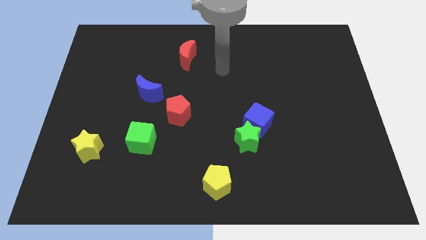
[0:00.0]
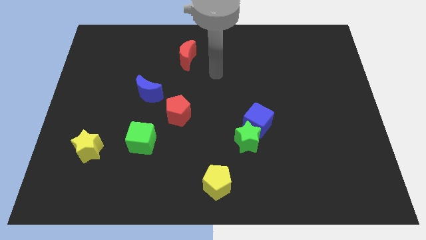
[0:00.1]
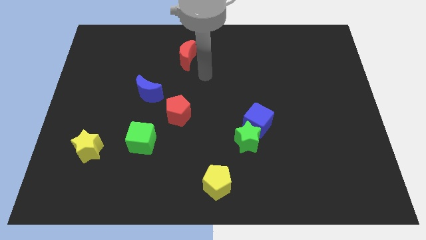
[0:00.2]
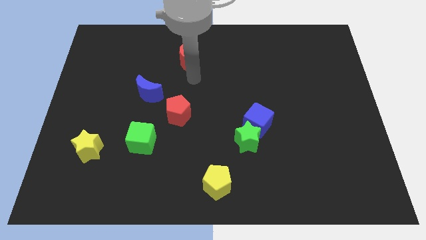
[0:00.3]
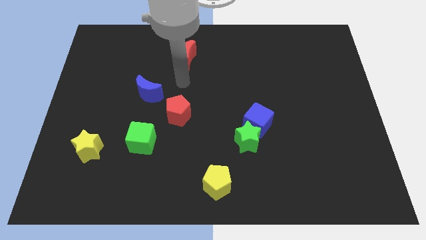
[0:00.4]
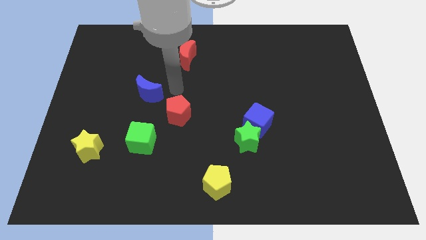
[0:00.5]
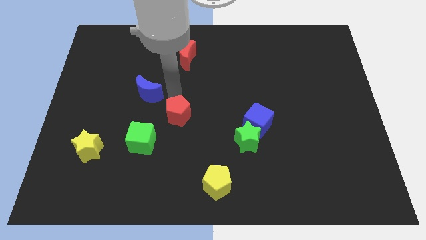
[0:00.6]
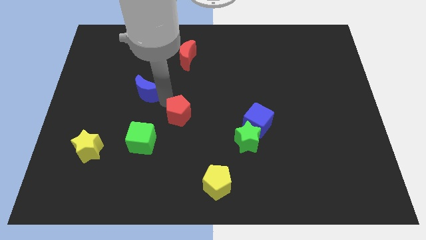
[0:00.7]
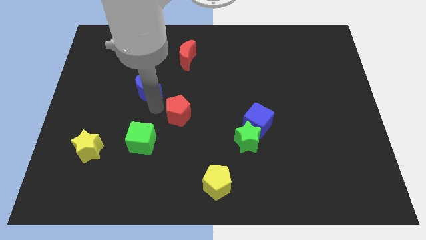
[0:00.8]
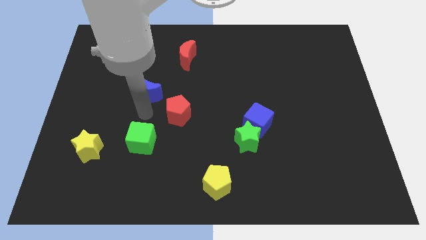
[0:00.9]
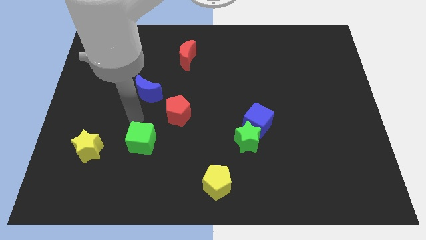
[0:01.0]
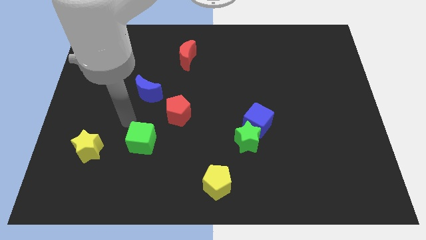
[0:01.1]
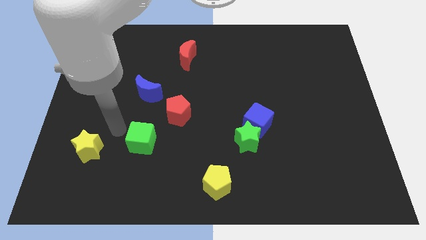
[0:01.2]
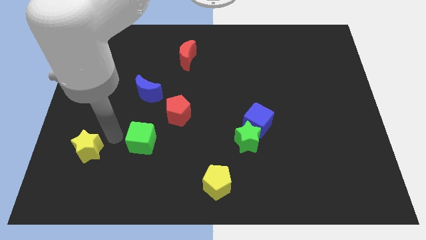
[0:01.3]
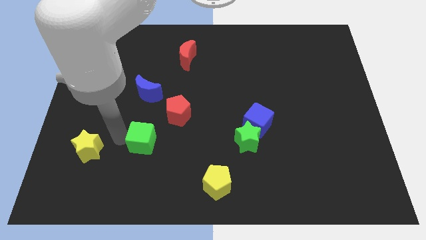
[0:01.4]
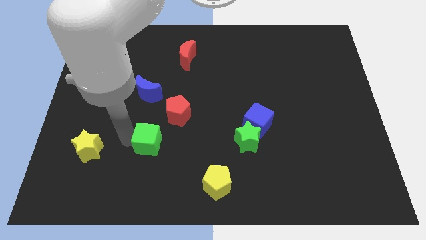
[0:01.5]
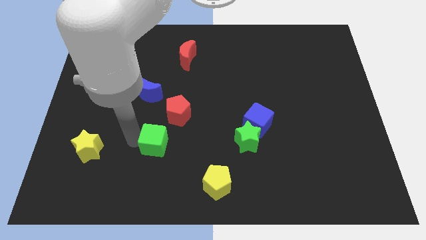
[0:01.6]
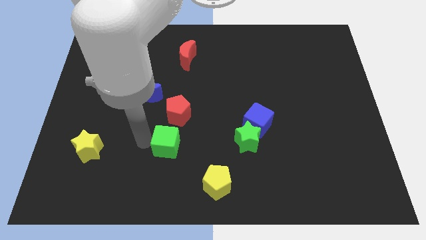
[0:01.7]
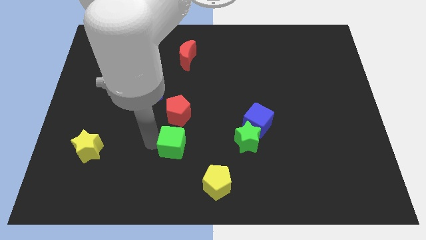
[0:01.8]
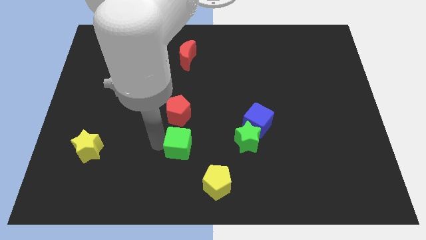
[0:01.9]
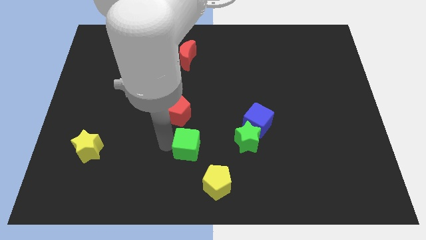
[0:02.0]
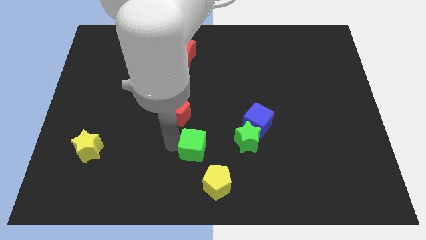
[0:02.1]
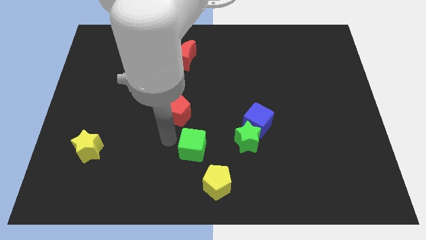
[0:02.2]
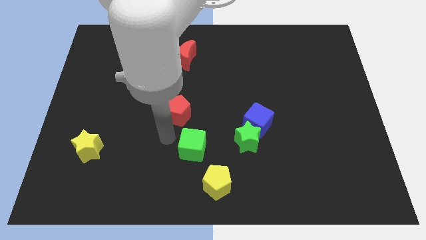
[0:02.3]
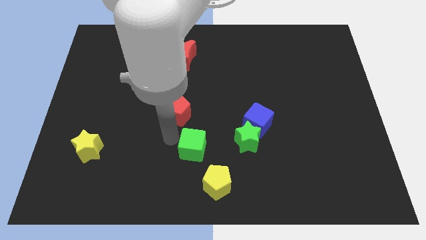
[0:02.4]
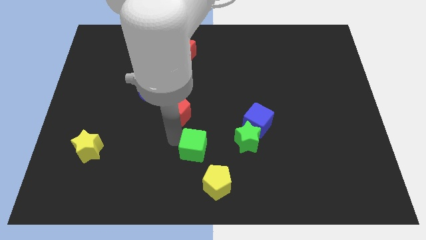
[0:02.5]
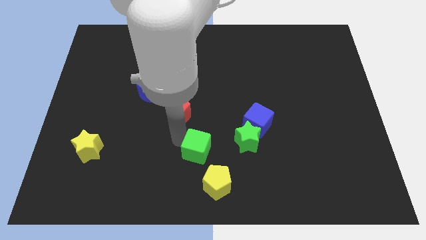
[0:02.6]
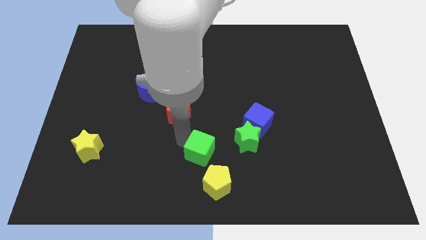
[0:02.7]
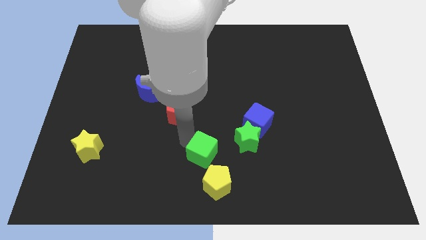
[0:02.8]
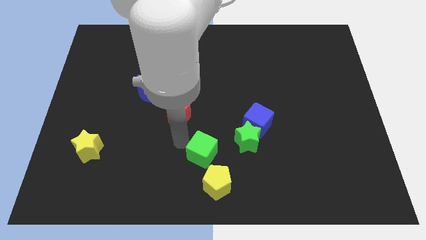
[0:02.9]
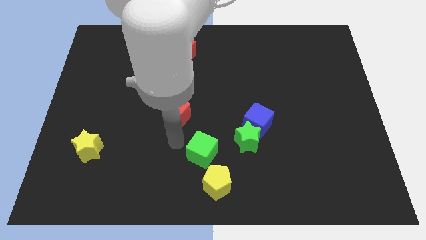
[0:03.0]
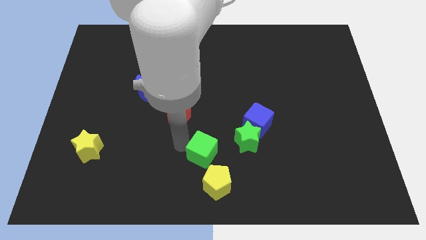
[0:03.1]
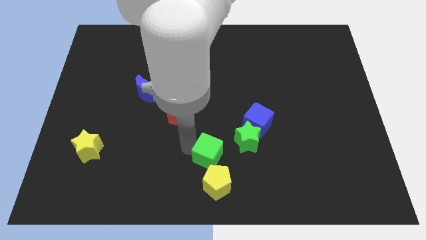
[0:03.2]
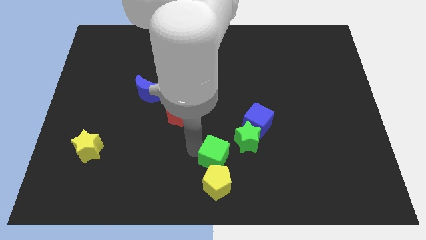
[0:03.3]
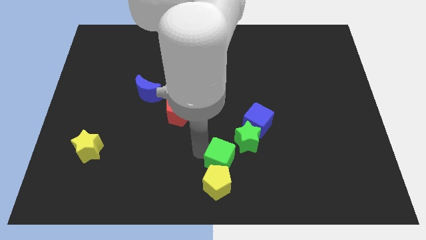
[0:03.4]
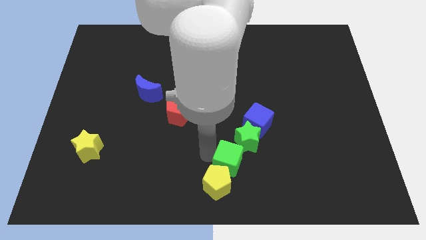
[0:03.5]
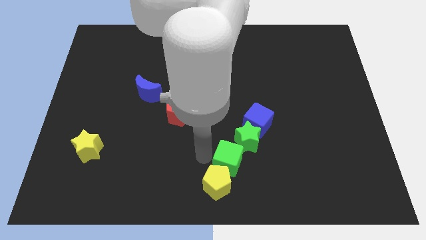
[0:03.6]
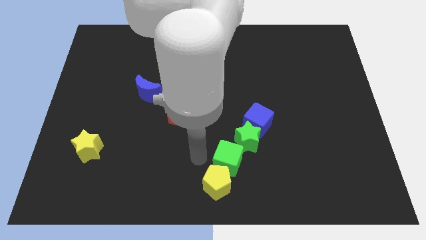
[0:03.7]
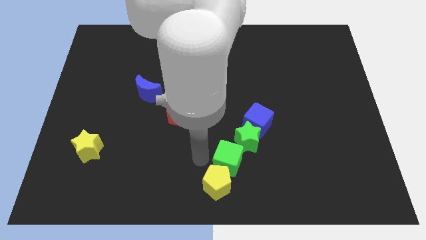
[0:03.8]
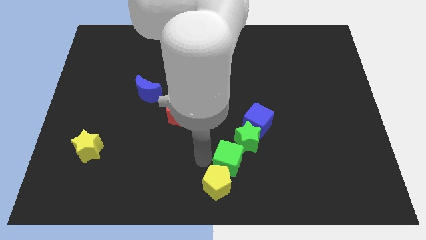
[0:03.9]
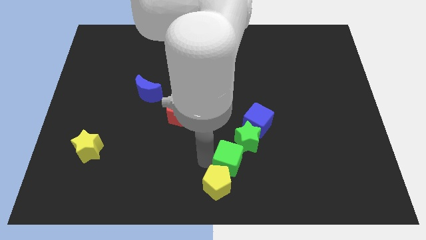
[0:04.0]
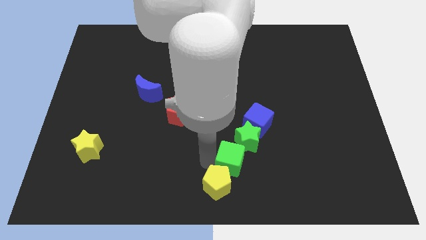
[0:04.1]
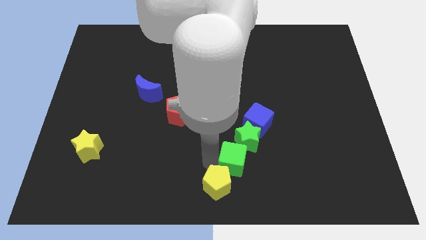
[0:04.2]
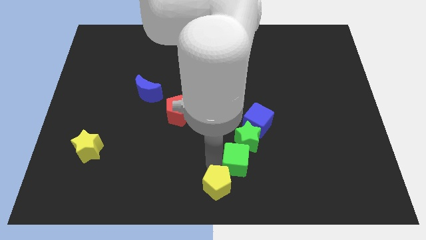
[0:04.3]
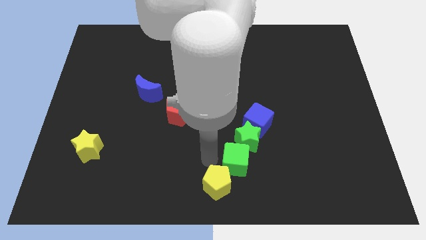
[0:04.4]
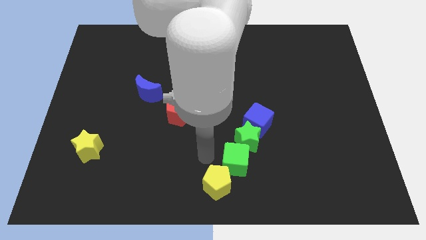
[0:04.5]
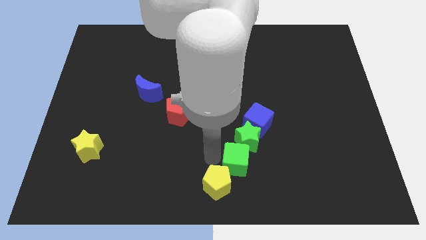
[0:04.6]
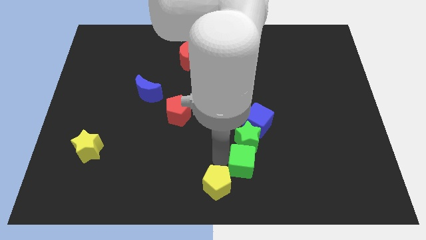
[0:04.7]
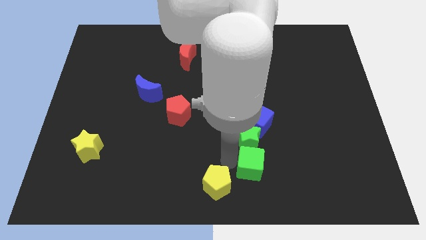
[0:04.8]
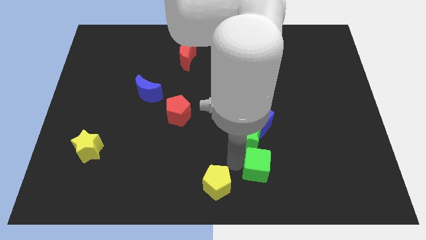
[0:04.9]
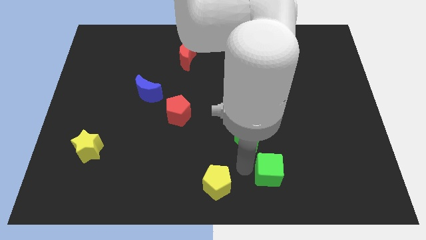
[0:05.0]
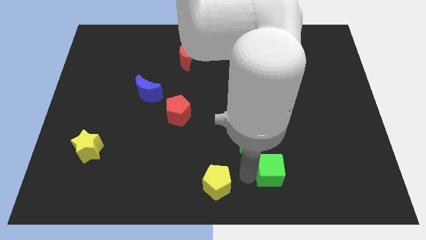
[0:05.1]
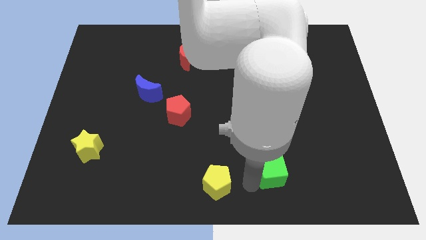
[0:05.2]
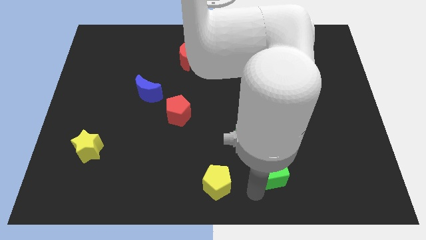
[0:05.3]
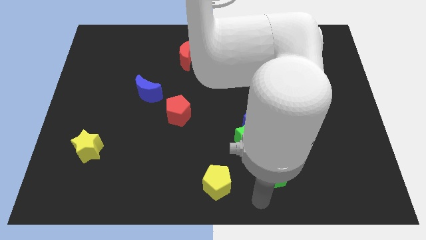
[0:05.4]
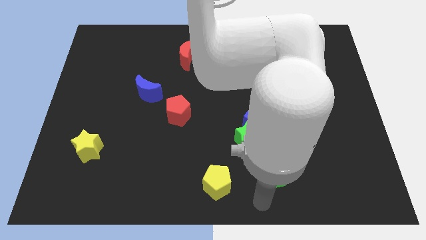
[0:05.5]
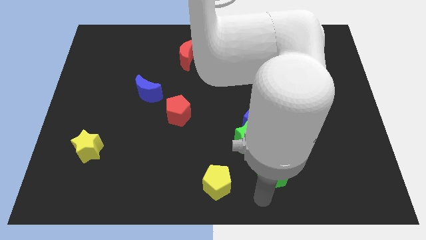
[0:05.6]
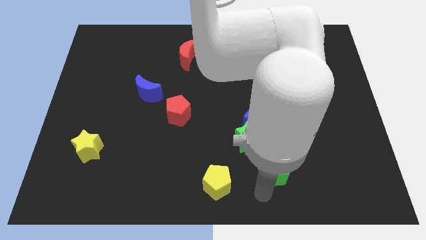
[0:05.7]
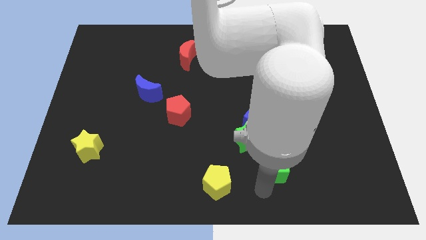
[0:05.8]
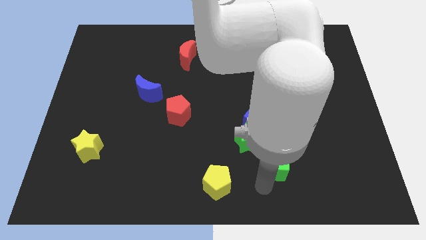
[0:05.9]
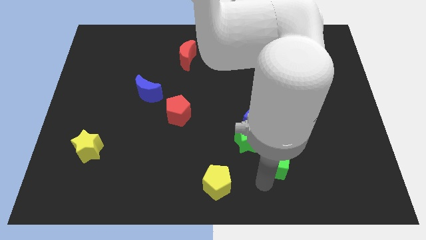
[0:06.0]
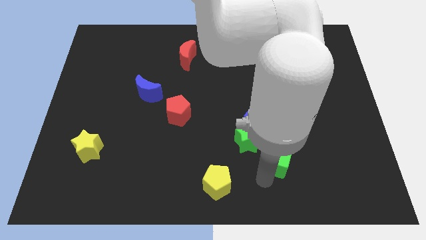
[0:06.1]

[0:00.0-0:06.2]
slide the green cube diagonally down and to the right of the blue cube

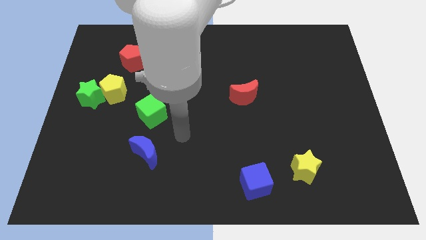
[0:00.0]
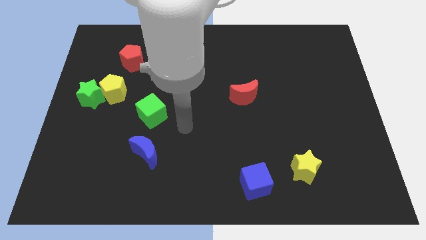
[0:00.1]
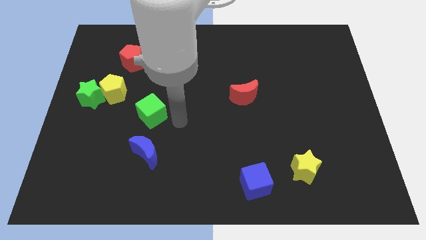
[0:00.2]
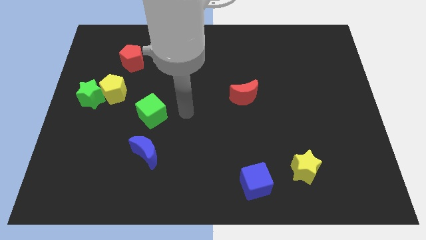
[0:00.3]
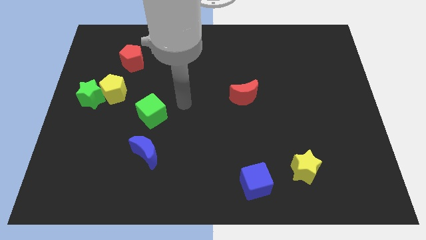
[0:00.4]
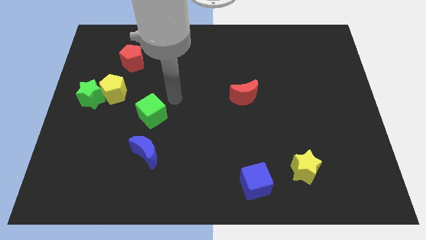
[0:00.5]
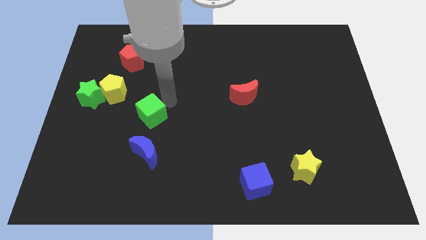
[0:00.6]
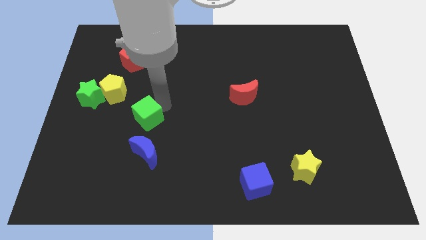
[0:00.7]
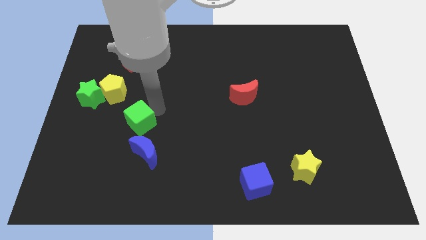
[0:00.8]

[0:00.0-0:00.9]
push the green cube to the top left of the blue moon
